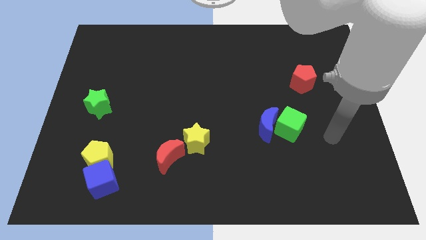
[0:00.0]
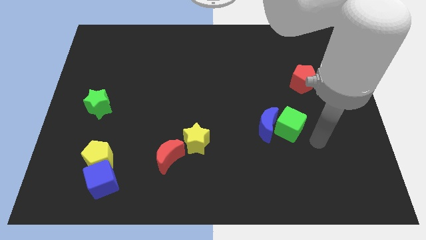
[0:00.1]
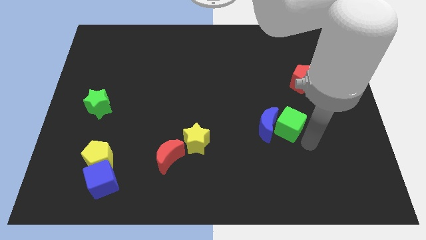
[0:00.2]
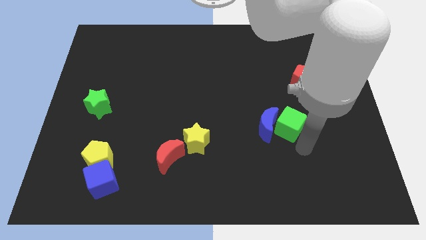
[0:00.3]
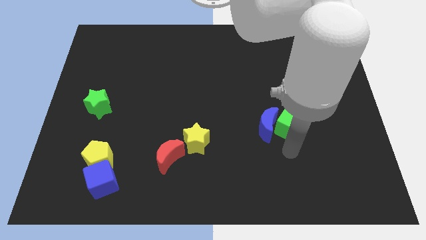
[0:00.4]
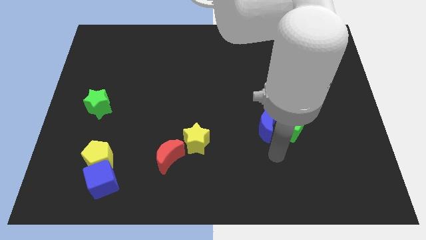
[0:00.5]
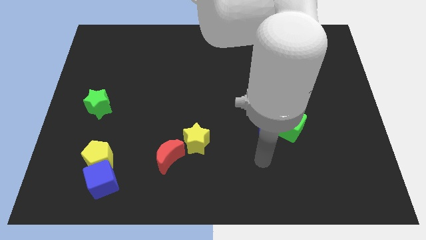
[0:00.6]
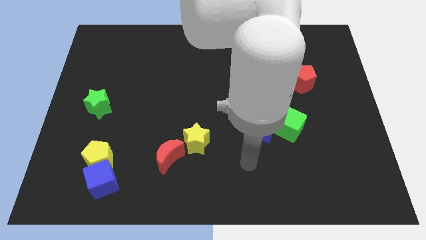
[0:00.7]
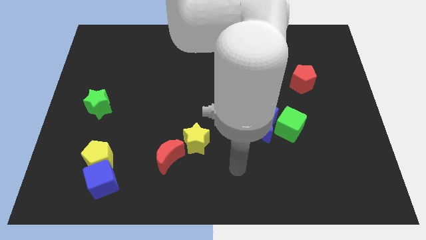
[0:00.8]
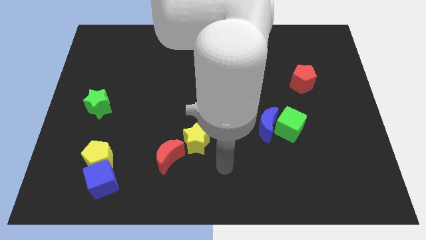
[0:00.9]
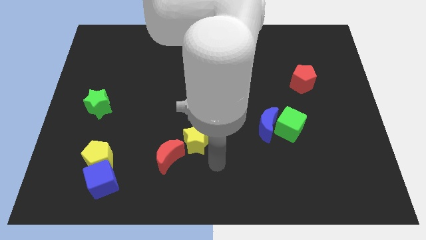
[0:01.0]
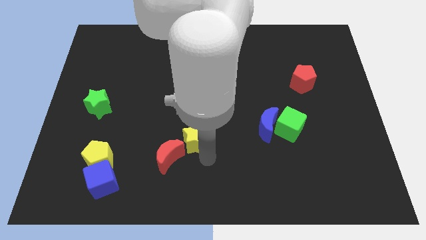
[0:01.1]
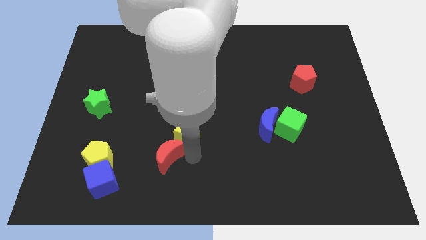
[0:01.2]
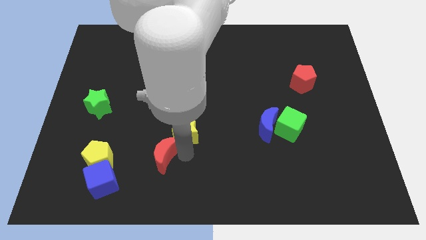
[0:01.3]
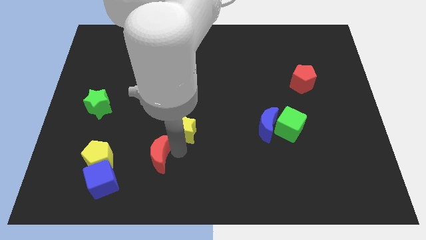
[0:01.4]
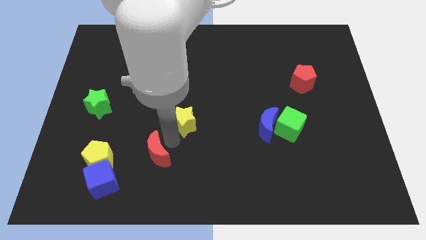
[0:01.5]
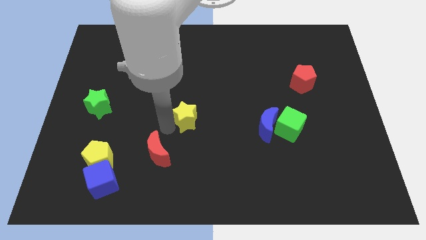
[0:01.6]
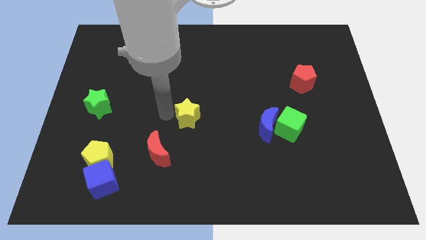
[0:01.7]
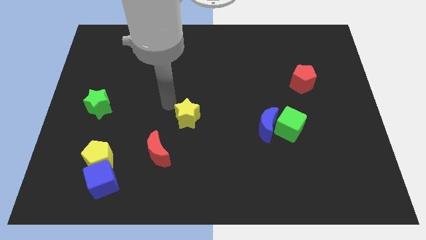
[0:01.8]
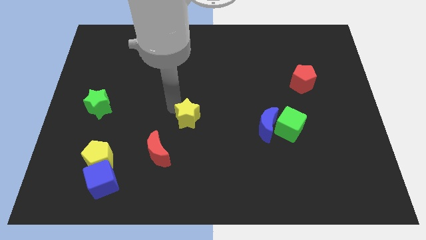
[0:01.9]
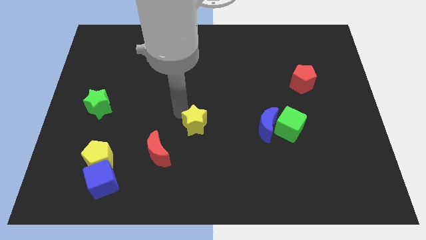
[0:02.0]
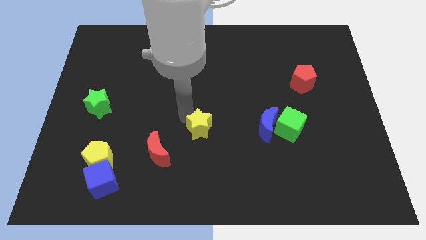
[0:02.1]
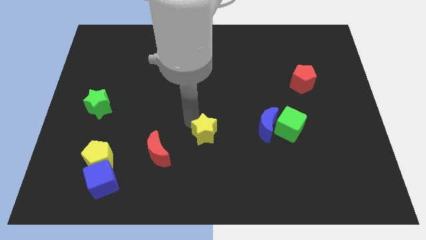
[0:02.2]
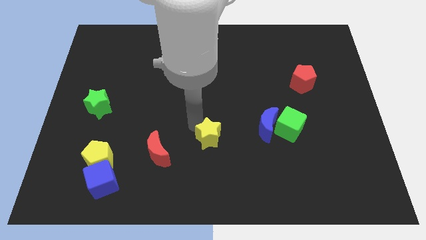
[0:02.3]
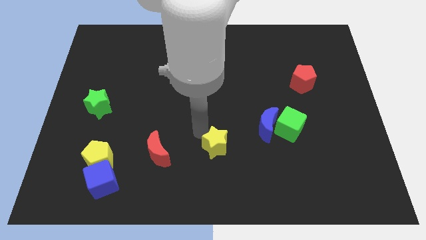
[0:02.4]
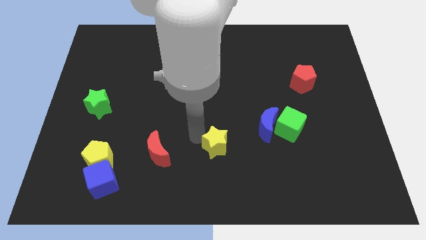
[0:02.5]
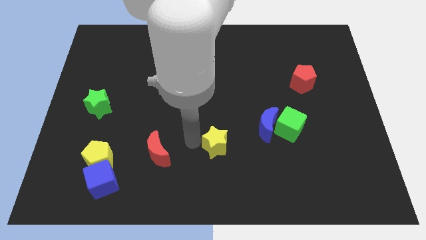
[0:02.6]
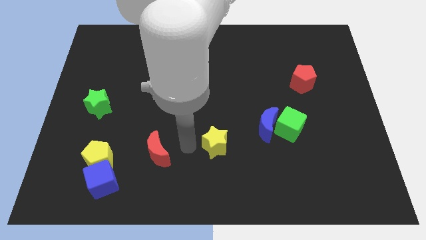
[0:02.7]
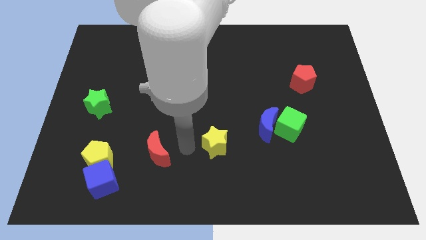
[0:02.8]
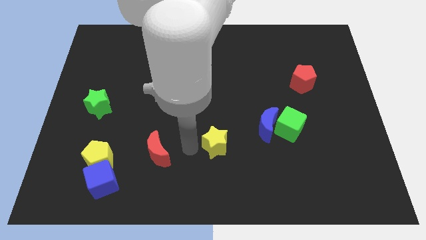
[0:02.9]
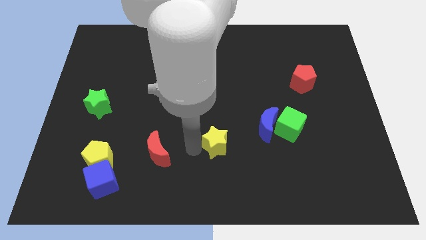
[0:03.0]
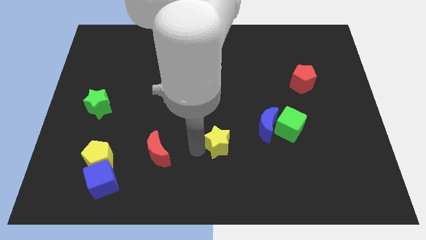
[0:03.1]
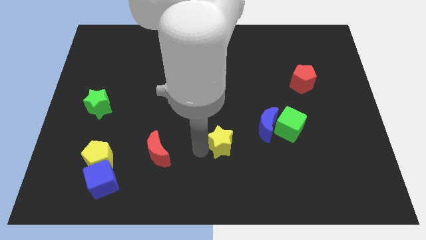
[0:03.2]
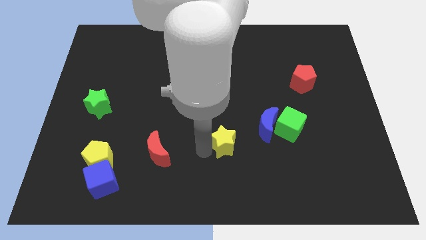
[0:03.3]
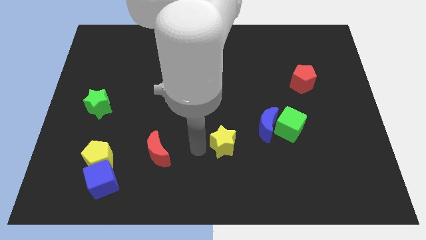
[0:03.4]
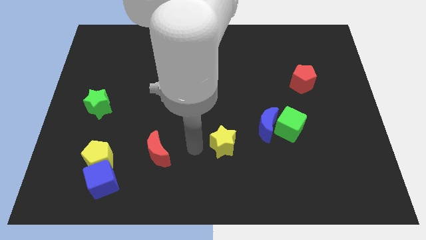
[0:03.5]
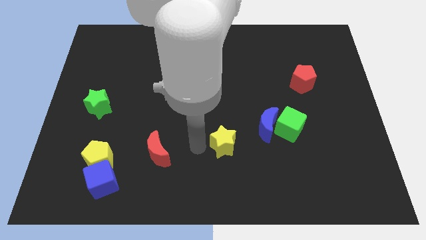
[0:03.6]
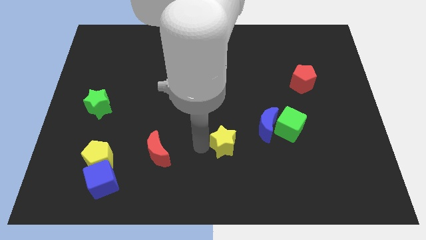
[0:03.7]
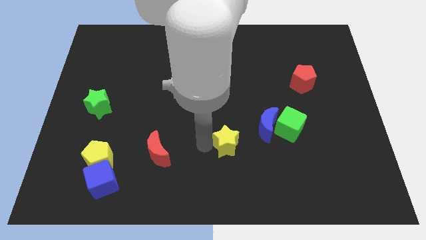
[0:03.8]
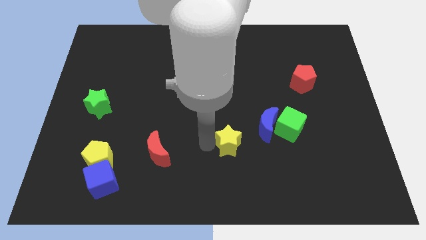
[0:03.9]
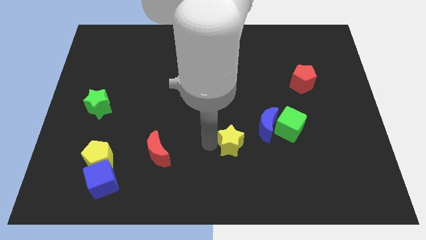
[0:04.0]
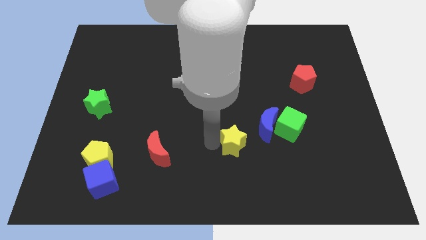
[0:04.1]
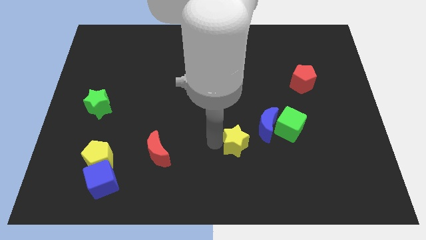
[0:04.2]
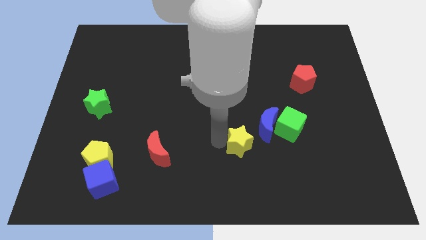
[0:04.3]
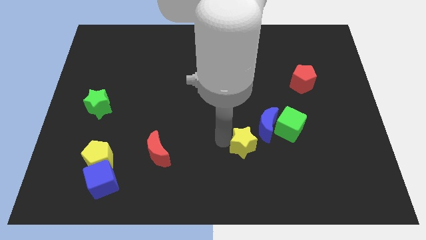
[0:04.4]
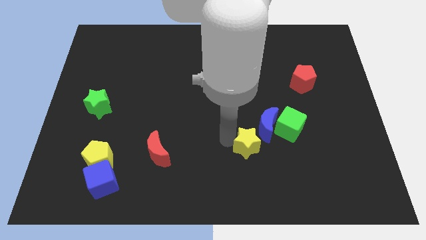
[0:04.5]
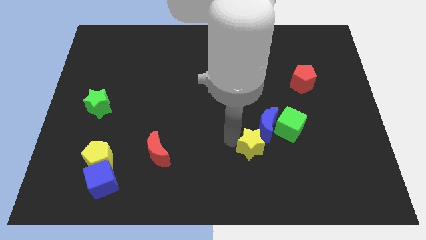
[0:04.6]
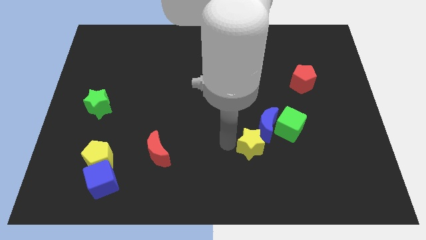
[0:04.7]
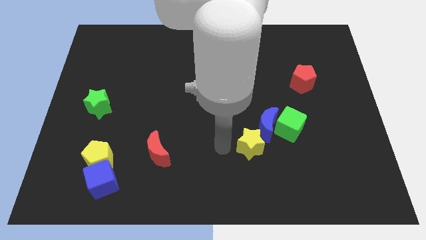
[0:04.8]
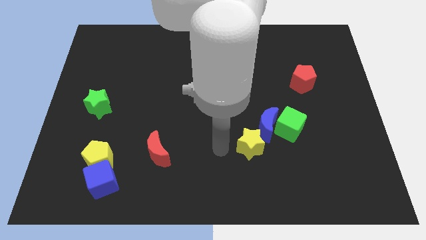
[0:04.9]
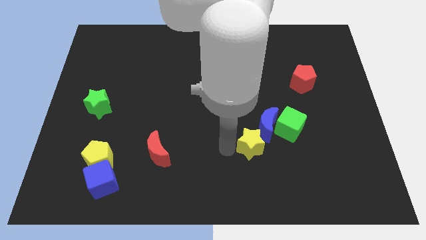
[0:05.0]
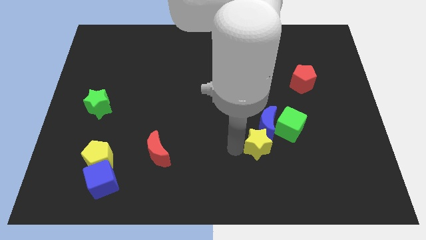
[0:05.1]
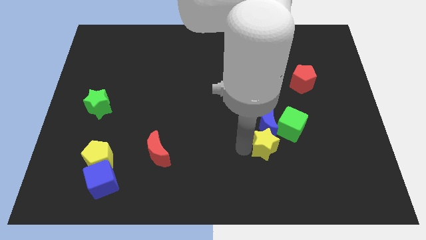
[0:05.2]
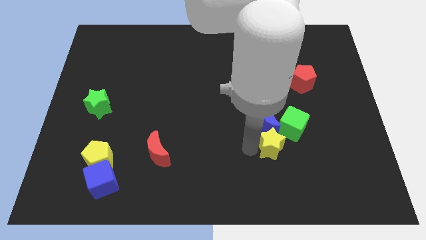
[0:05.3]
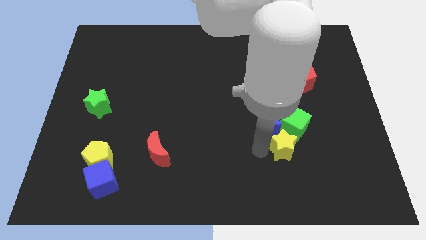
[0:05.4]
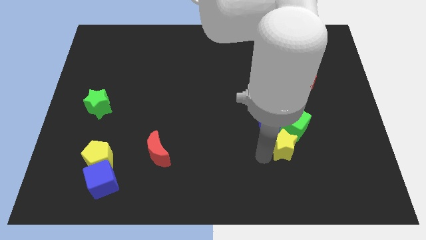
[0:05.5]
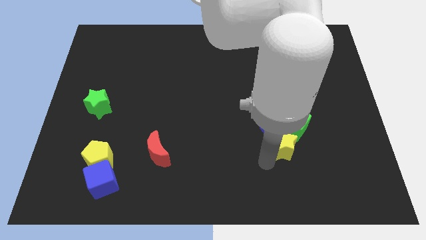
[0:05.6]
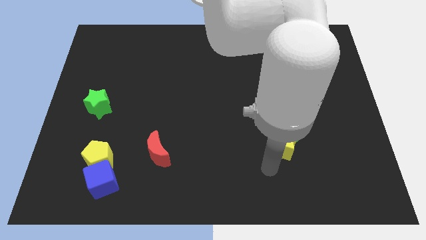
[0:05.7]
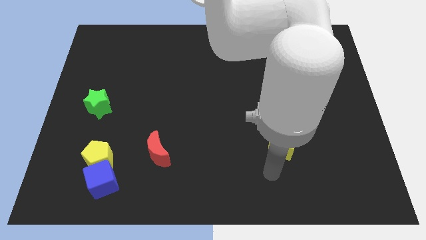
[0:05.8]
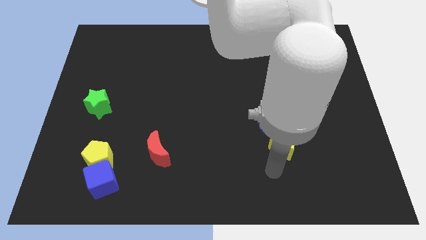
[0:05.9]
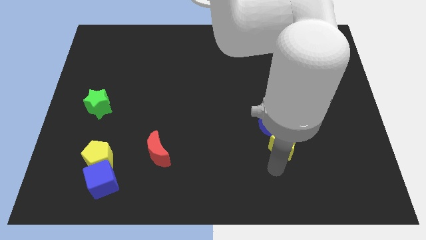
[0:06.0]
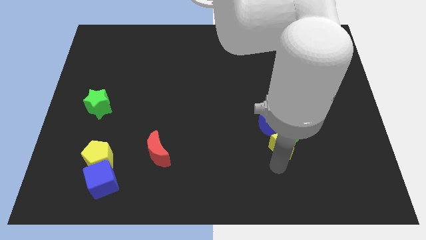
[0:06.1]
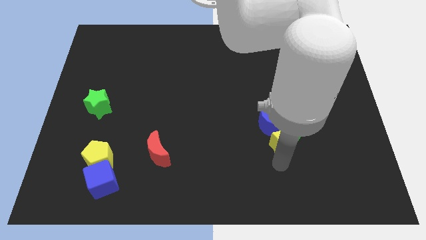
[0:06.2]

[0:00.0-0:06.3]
put the yellow star towards the green cube
